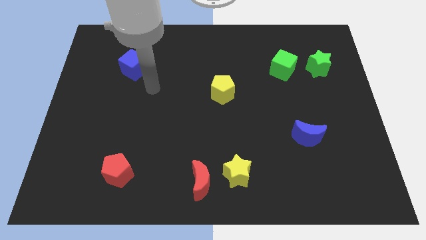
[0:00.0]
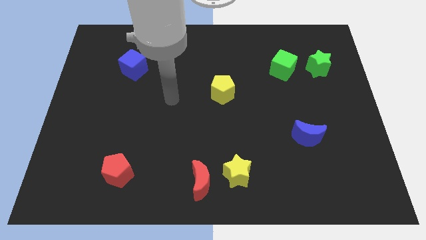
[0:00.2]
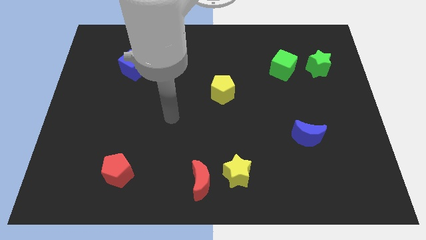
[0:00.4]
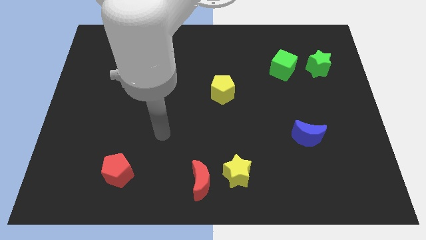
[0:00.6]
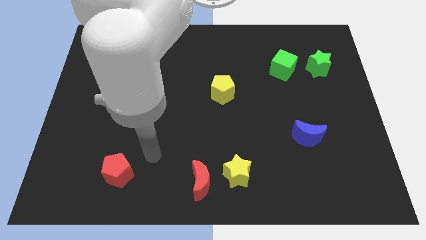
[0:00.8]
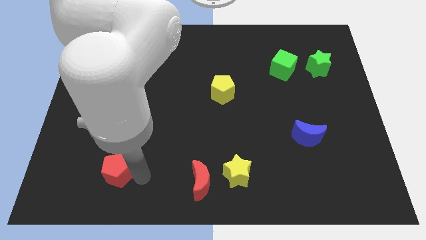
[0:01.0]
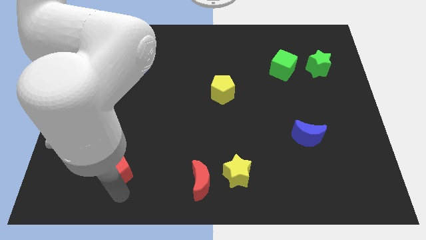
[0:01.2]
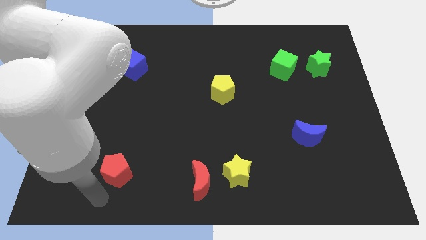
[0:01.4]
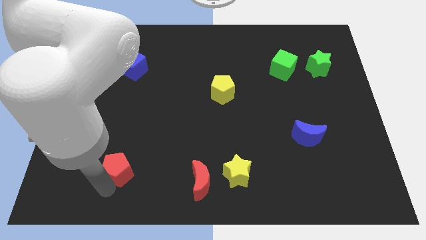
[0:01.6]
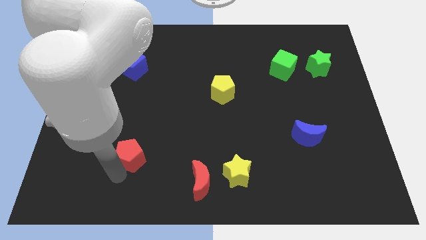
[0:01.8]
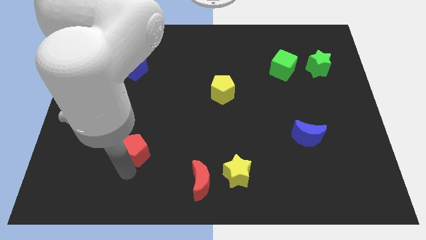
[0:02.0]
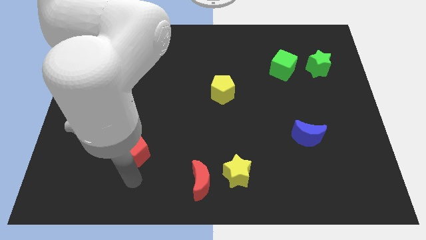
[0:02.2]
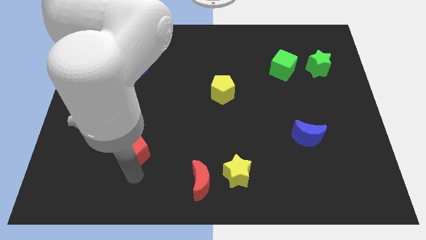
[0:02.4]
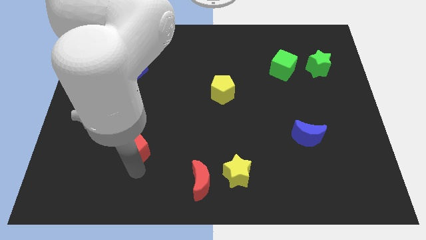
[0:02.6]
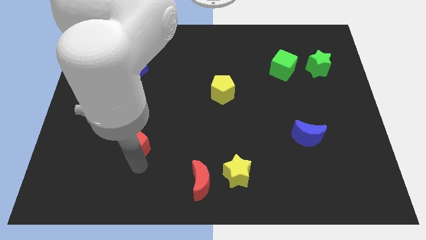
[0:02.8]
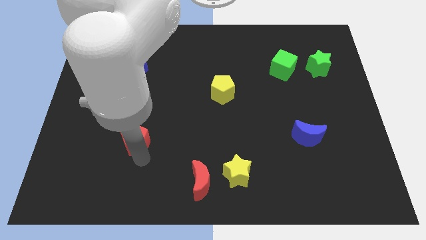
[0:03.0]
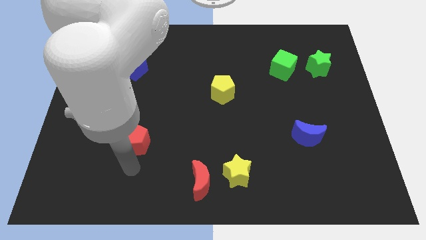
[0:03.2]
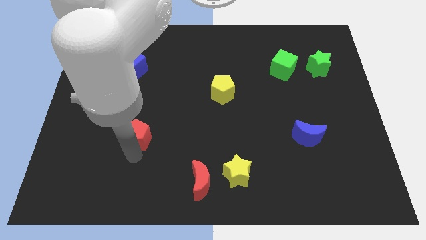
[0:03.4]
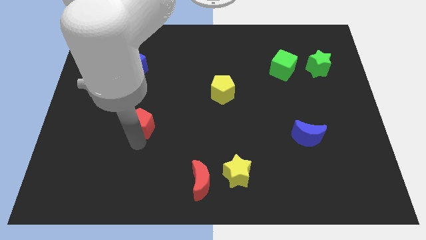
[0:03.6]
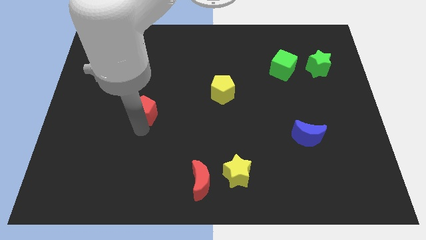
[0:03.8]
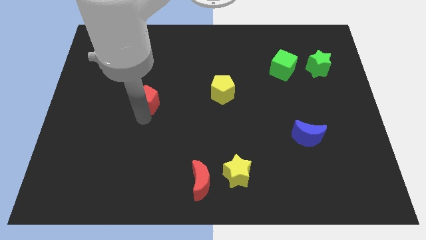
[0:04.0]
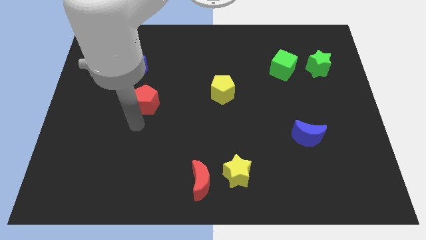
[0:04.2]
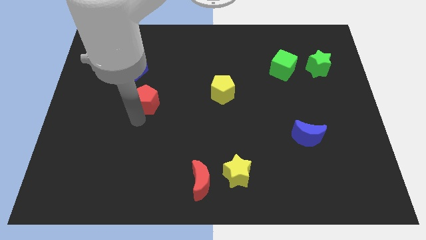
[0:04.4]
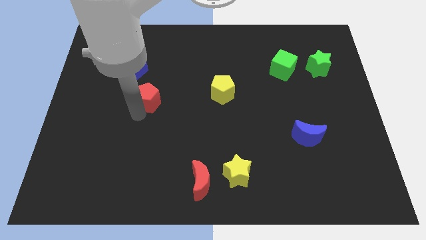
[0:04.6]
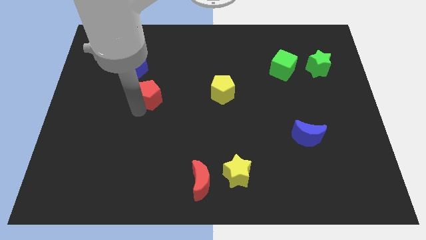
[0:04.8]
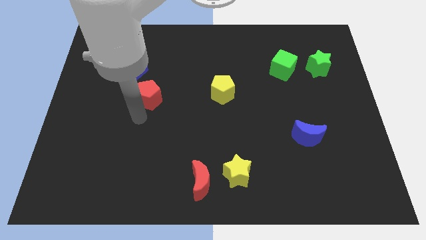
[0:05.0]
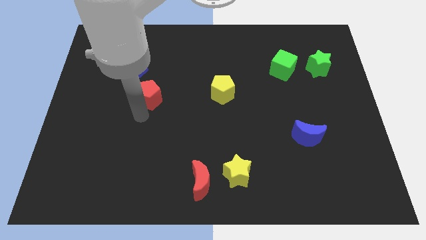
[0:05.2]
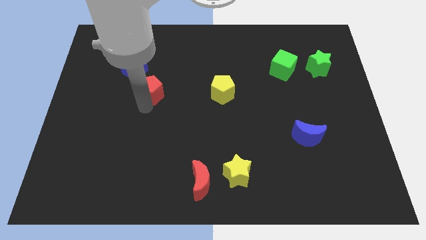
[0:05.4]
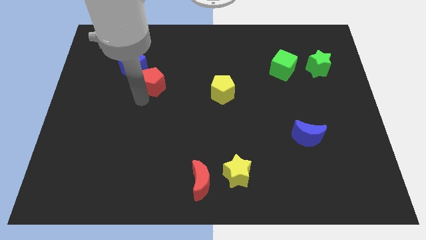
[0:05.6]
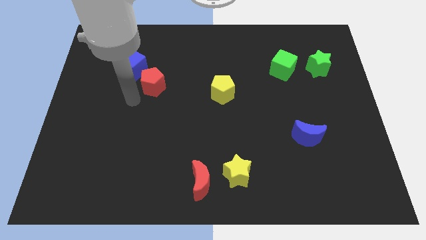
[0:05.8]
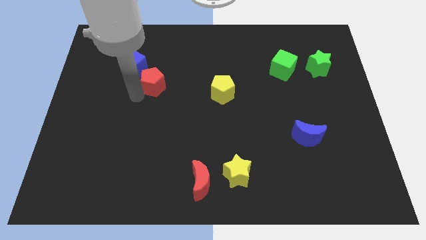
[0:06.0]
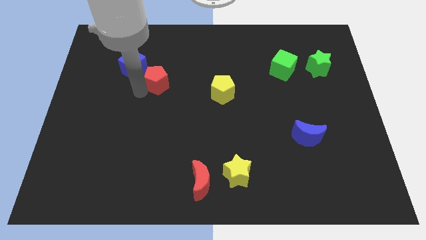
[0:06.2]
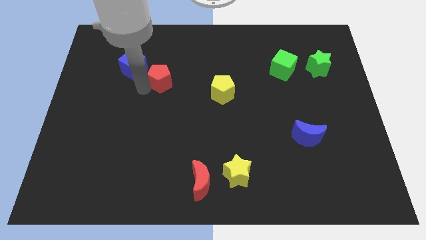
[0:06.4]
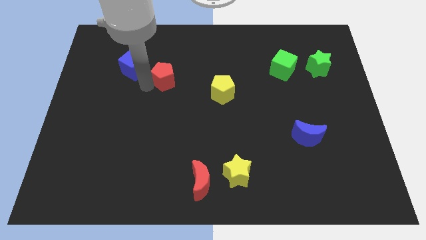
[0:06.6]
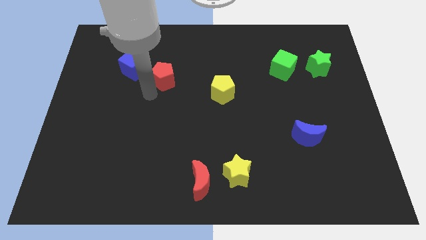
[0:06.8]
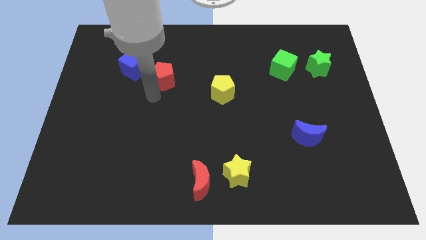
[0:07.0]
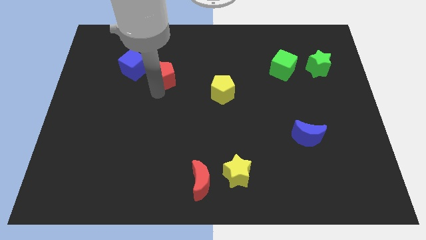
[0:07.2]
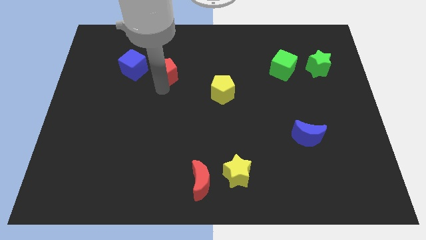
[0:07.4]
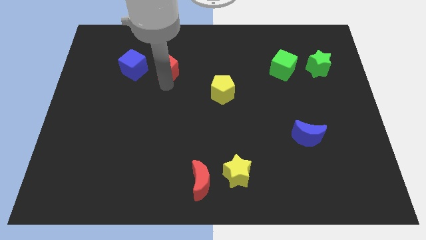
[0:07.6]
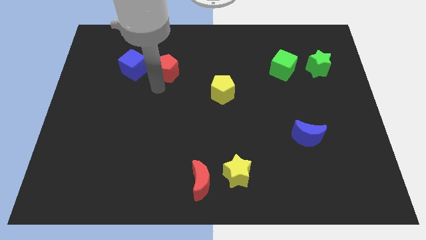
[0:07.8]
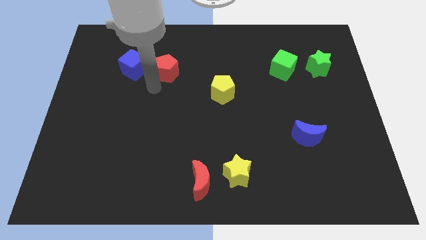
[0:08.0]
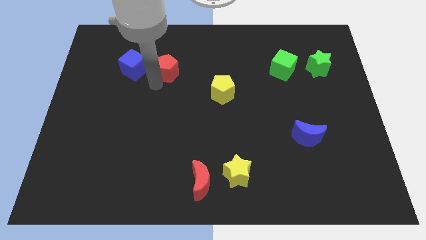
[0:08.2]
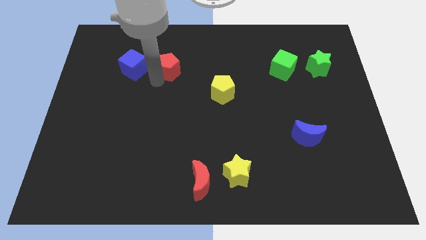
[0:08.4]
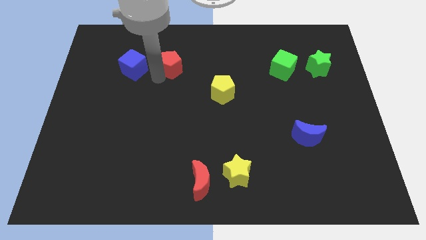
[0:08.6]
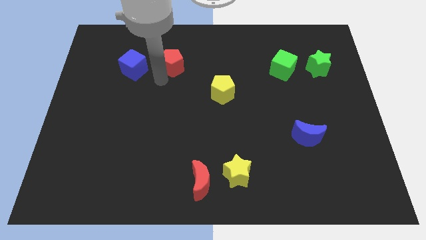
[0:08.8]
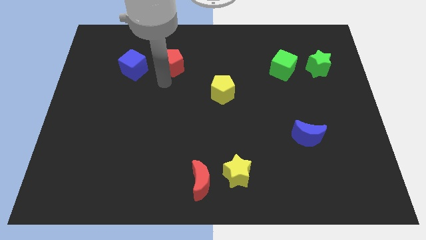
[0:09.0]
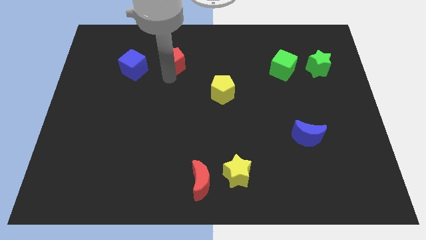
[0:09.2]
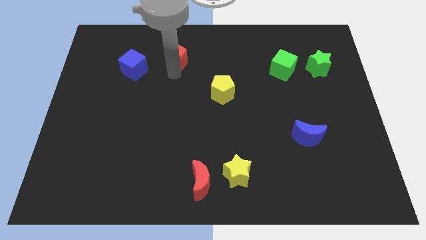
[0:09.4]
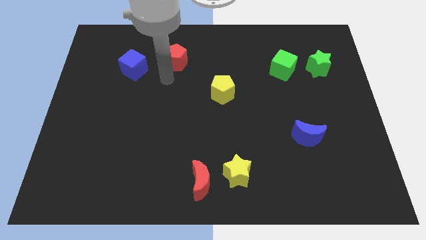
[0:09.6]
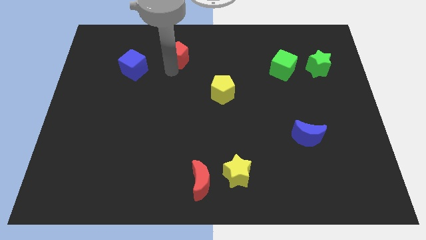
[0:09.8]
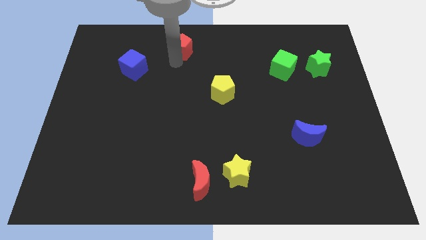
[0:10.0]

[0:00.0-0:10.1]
move the red pentagon to the towards your base
